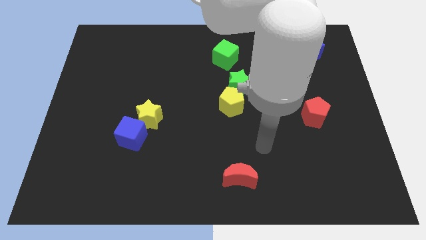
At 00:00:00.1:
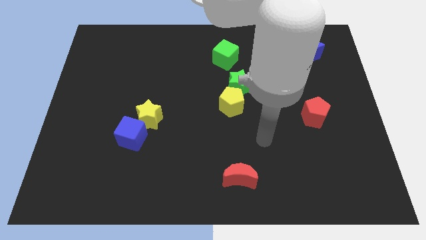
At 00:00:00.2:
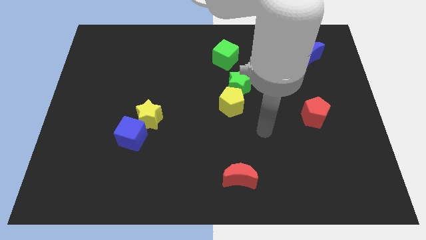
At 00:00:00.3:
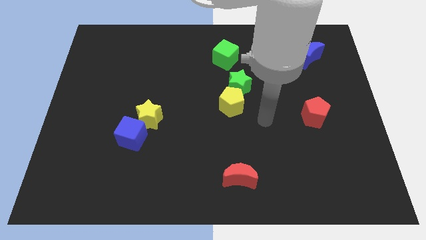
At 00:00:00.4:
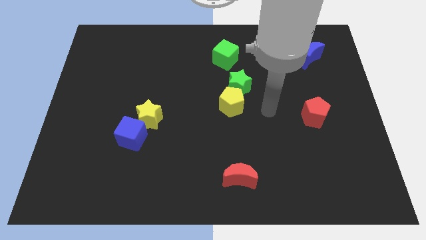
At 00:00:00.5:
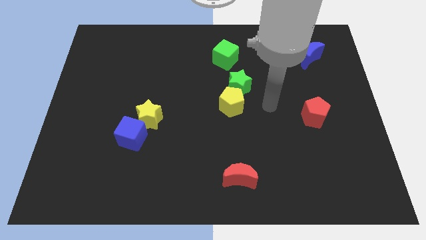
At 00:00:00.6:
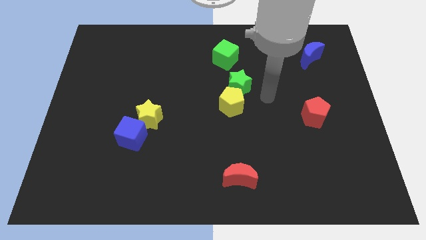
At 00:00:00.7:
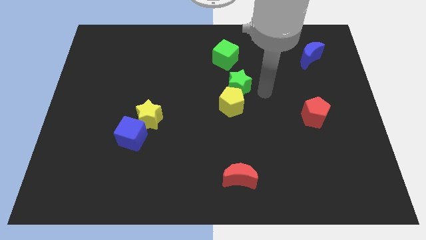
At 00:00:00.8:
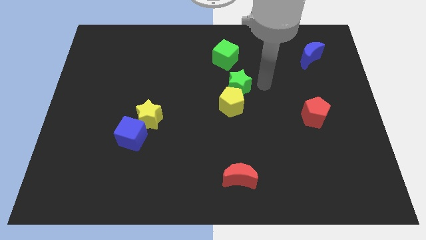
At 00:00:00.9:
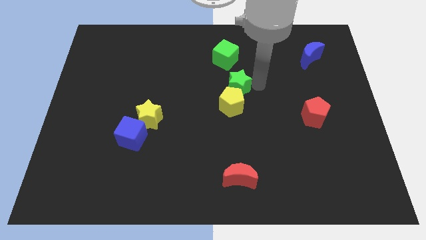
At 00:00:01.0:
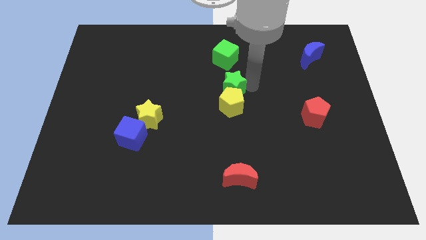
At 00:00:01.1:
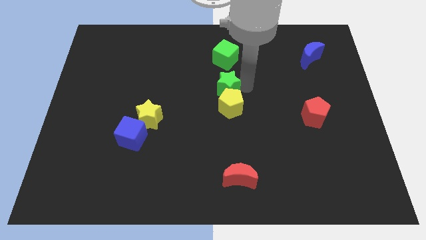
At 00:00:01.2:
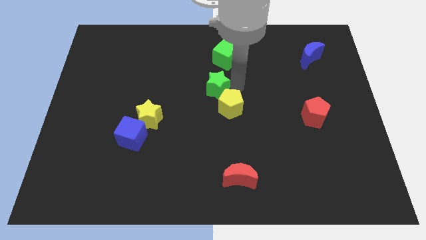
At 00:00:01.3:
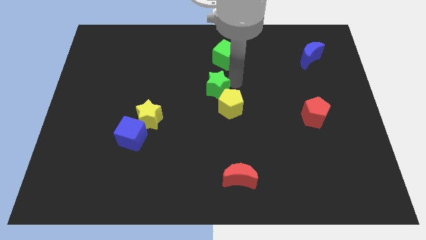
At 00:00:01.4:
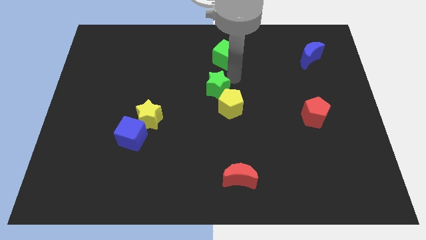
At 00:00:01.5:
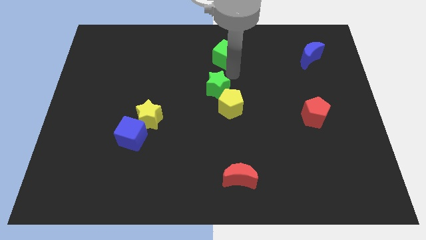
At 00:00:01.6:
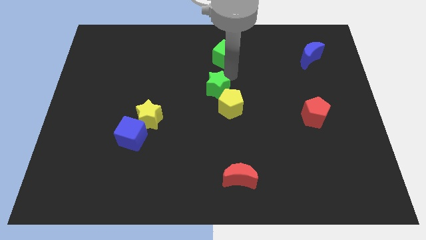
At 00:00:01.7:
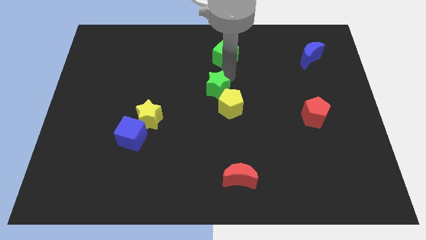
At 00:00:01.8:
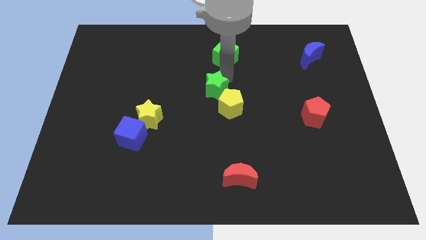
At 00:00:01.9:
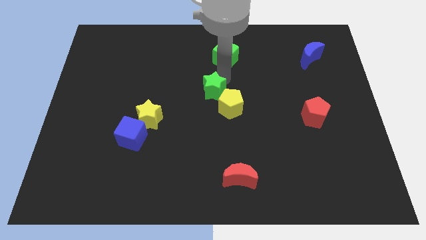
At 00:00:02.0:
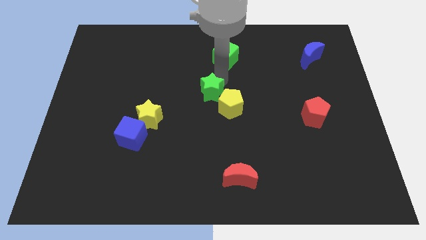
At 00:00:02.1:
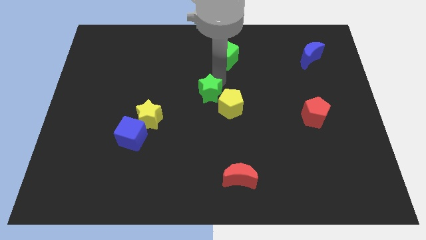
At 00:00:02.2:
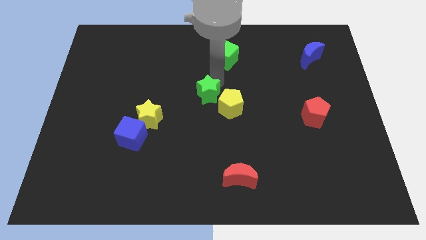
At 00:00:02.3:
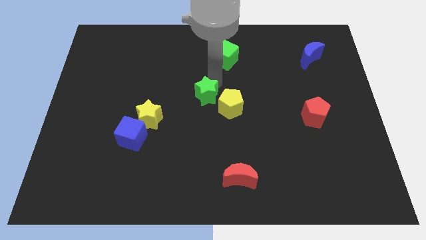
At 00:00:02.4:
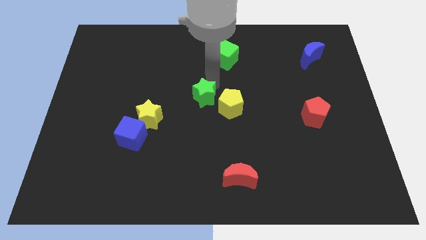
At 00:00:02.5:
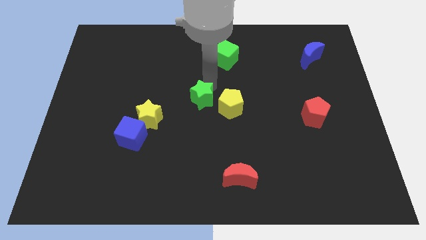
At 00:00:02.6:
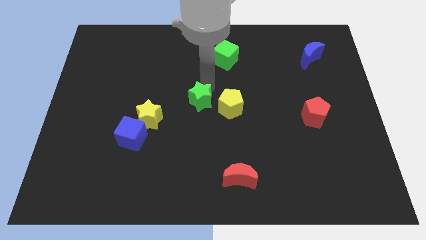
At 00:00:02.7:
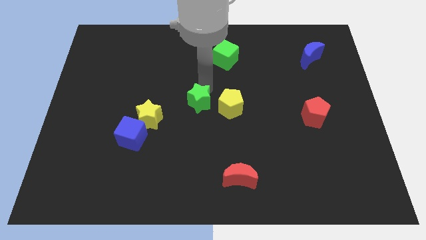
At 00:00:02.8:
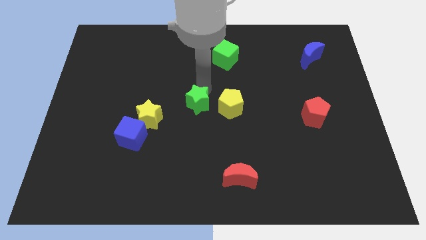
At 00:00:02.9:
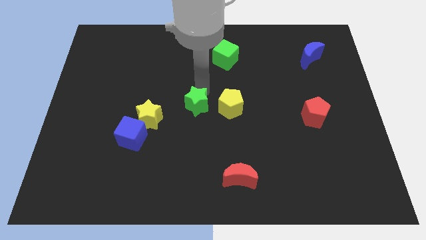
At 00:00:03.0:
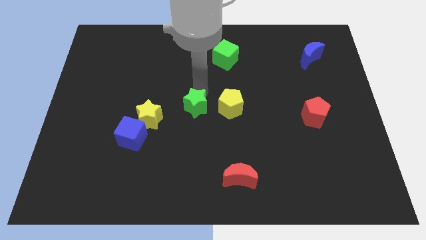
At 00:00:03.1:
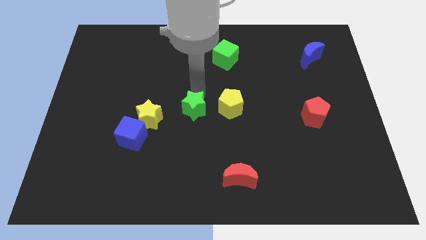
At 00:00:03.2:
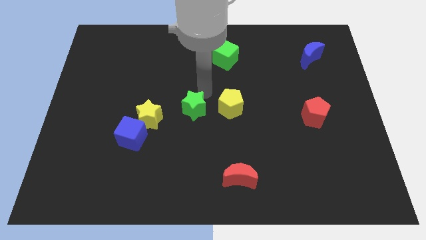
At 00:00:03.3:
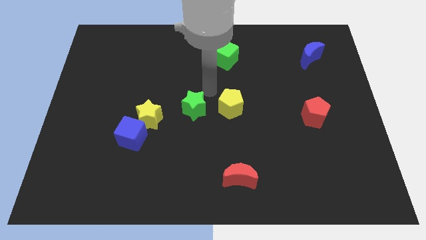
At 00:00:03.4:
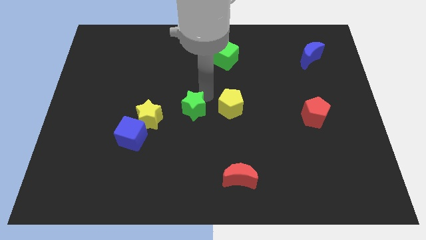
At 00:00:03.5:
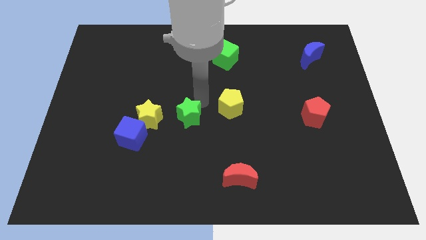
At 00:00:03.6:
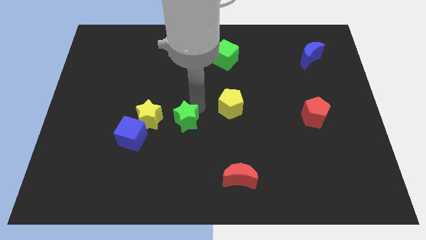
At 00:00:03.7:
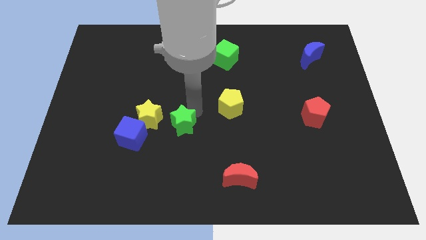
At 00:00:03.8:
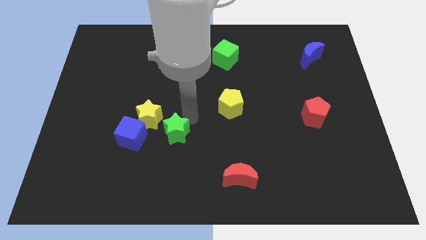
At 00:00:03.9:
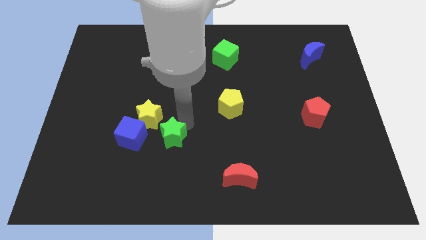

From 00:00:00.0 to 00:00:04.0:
push the green star diagonally downwards and to the left

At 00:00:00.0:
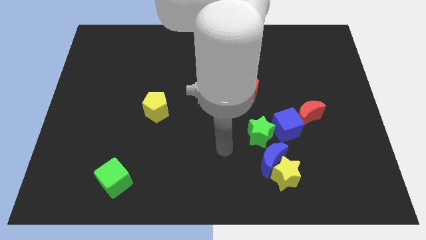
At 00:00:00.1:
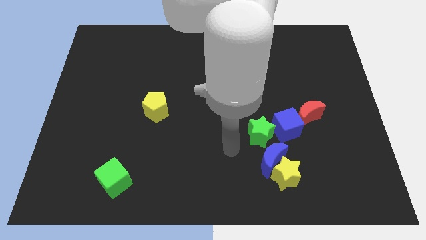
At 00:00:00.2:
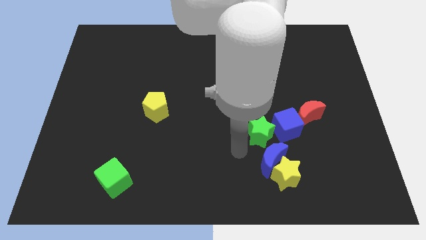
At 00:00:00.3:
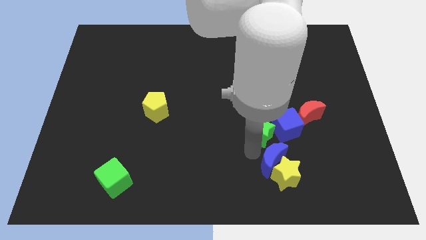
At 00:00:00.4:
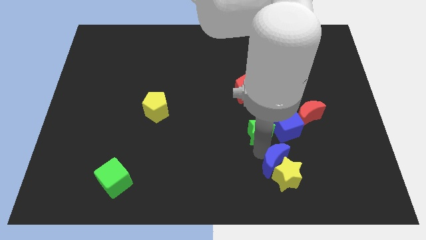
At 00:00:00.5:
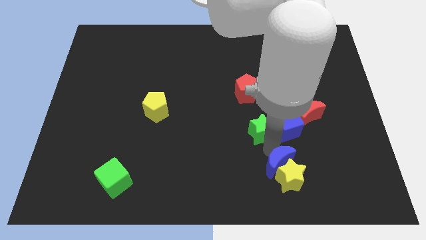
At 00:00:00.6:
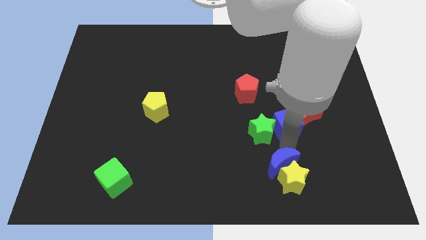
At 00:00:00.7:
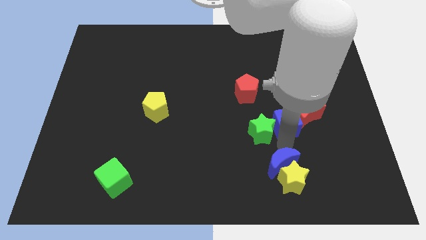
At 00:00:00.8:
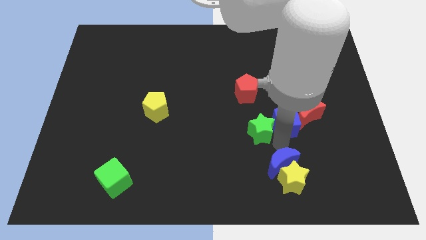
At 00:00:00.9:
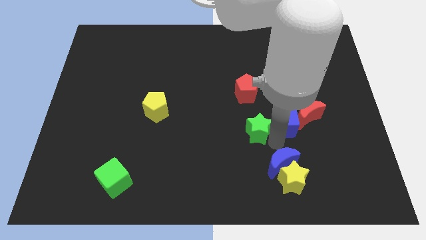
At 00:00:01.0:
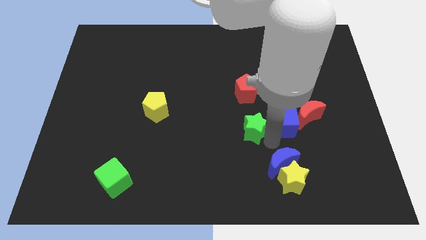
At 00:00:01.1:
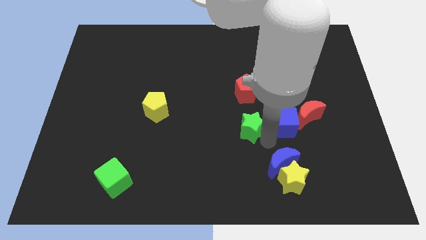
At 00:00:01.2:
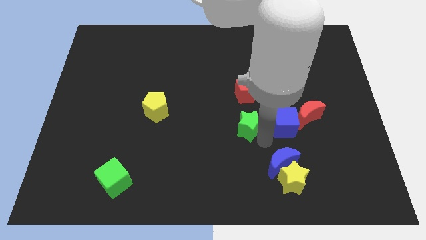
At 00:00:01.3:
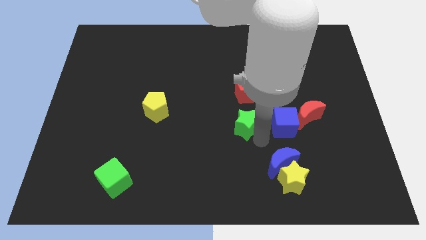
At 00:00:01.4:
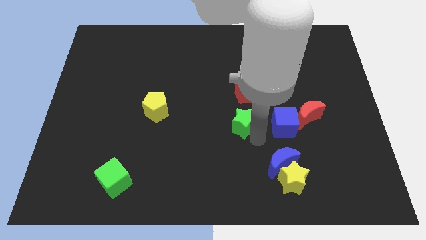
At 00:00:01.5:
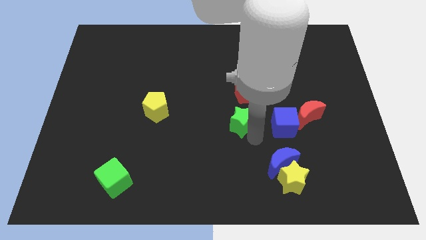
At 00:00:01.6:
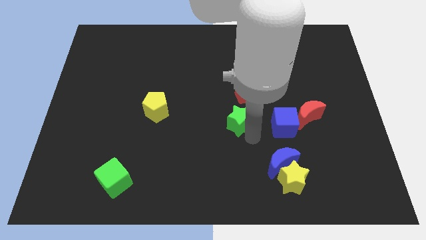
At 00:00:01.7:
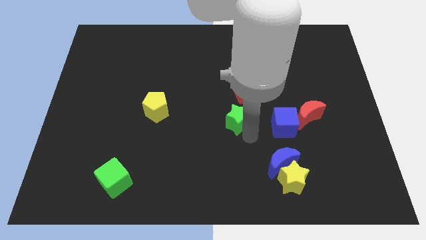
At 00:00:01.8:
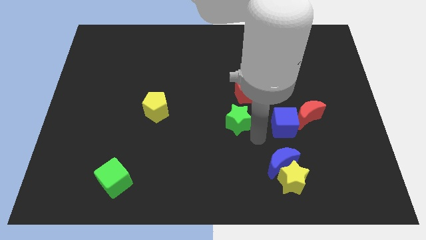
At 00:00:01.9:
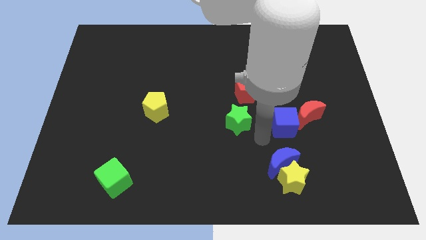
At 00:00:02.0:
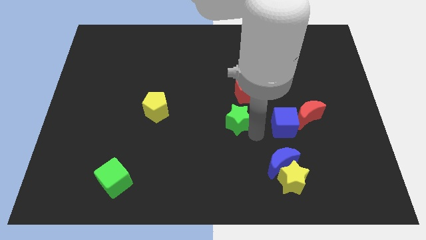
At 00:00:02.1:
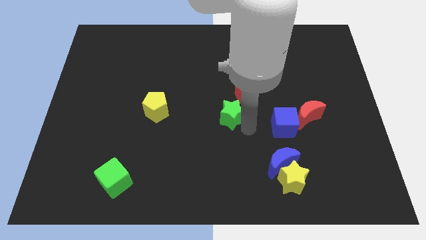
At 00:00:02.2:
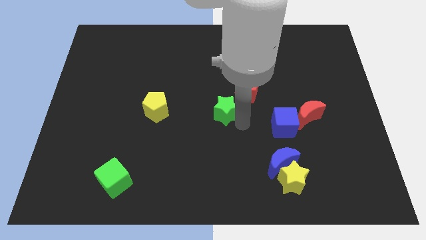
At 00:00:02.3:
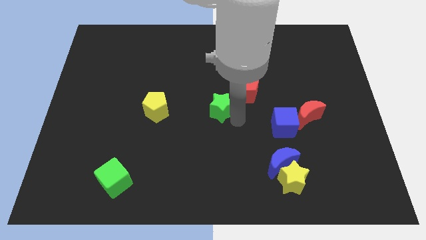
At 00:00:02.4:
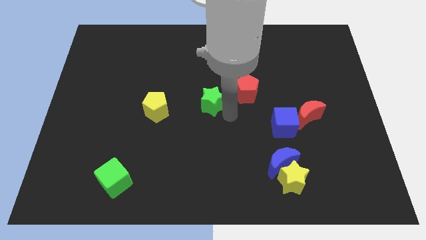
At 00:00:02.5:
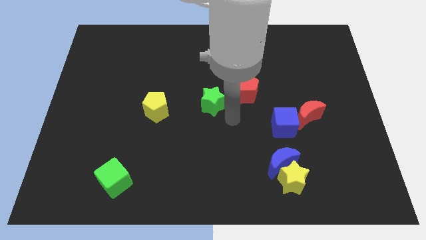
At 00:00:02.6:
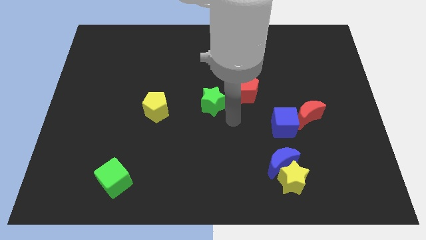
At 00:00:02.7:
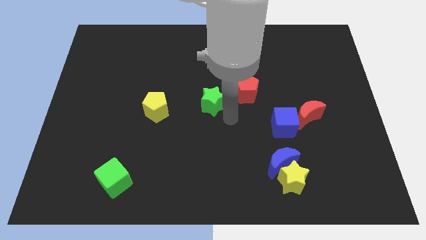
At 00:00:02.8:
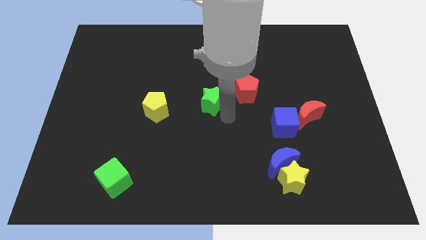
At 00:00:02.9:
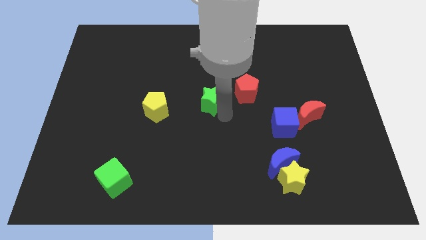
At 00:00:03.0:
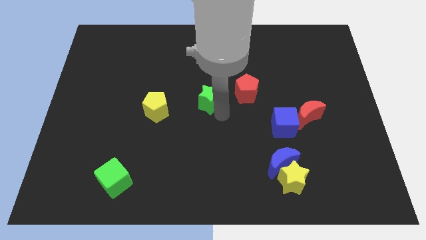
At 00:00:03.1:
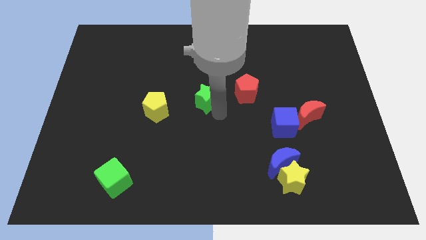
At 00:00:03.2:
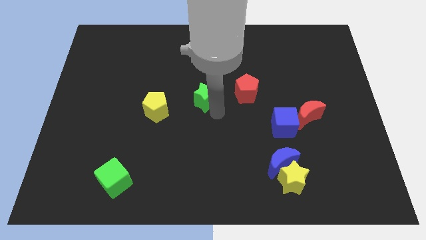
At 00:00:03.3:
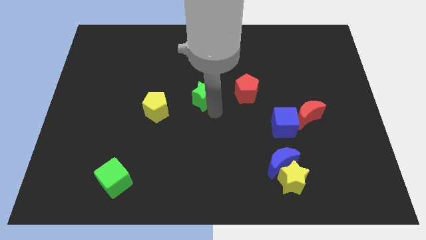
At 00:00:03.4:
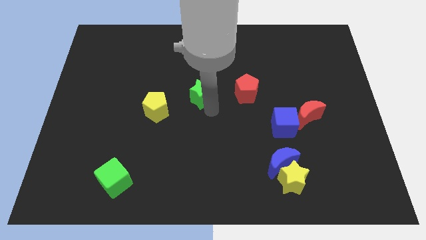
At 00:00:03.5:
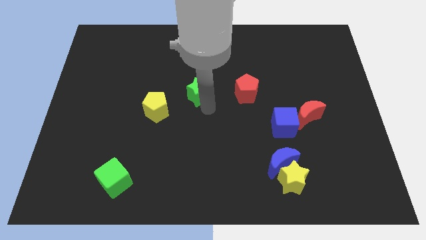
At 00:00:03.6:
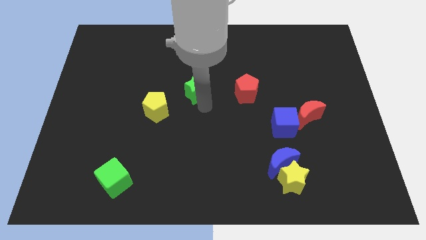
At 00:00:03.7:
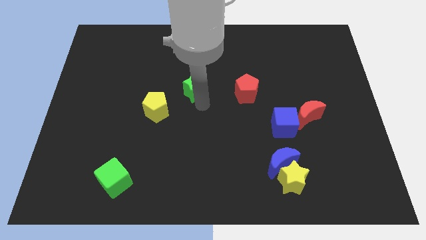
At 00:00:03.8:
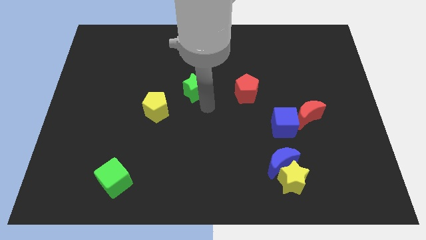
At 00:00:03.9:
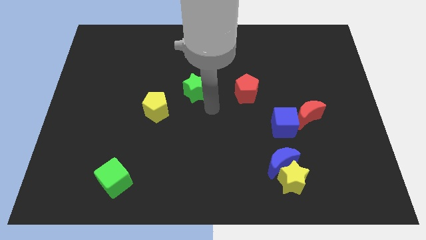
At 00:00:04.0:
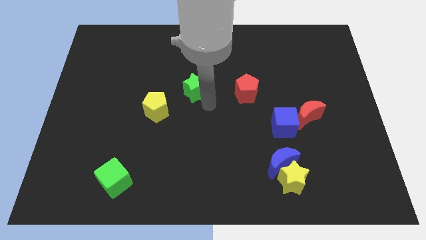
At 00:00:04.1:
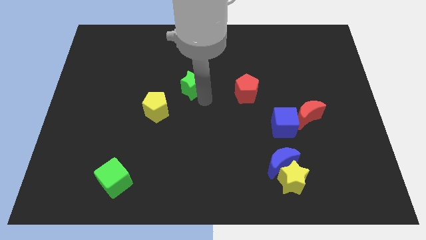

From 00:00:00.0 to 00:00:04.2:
move the green star upwards and to the left diagonally

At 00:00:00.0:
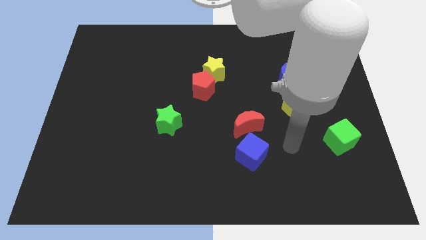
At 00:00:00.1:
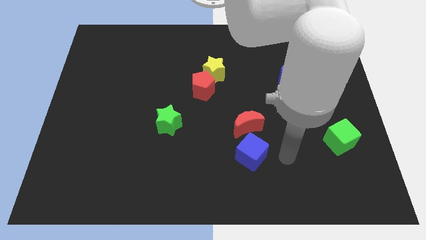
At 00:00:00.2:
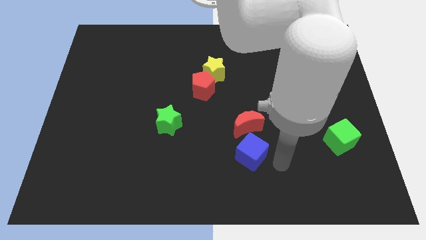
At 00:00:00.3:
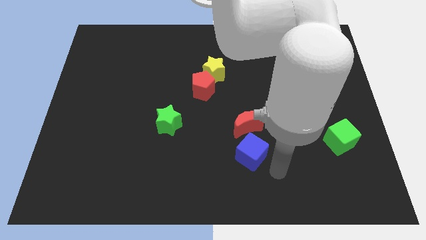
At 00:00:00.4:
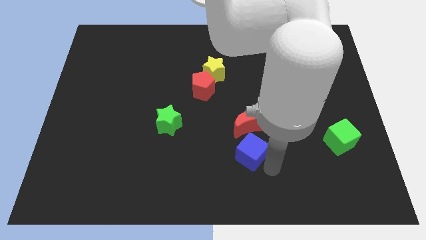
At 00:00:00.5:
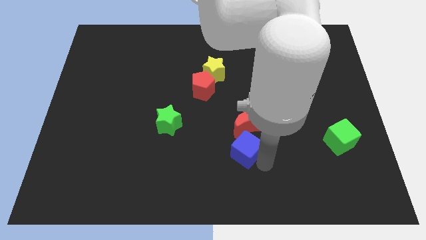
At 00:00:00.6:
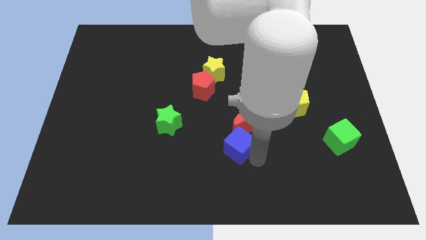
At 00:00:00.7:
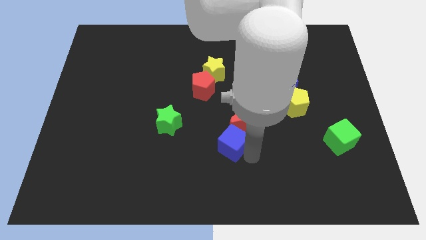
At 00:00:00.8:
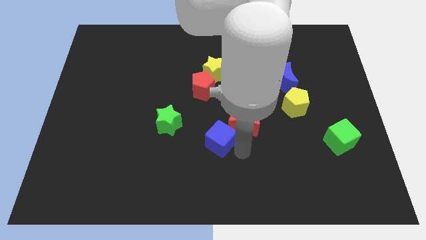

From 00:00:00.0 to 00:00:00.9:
move the blue cube a bit diagonally upwards and left
